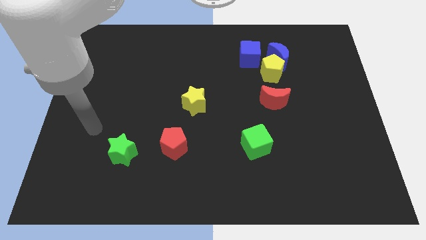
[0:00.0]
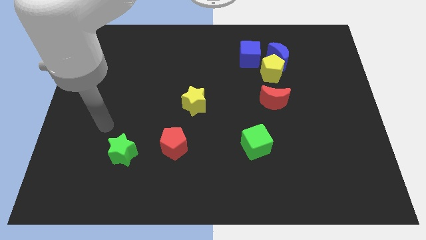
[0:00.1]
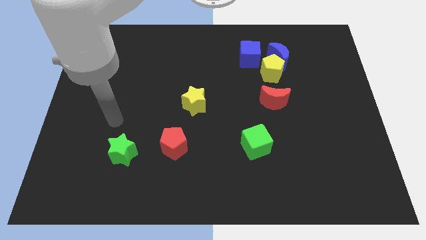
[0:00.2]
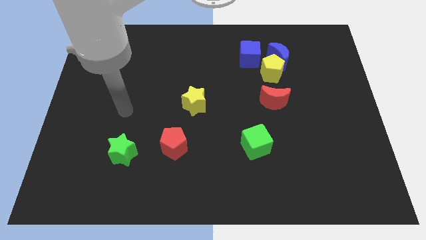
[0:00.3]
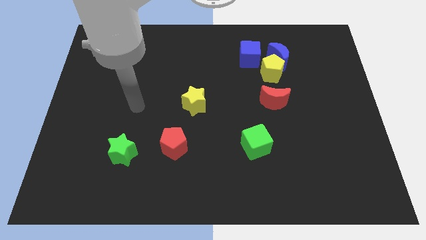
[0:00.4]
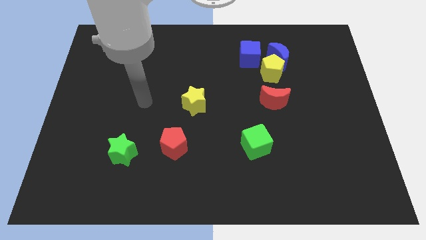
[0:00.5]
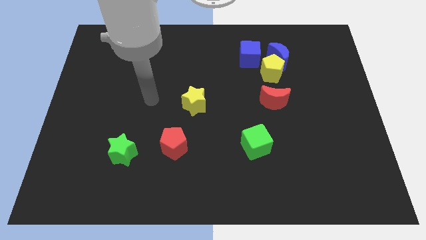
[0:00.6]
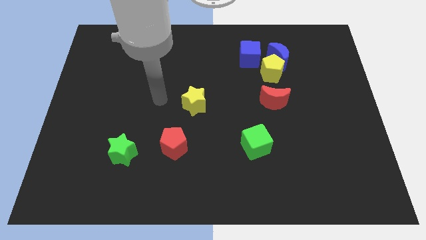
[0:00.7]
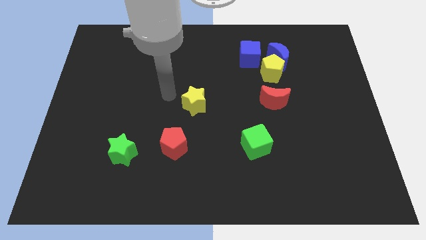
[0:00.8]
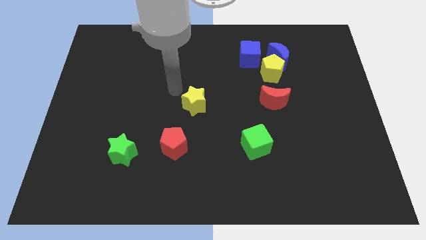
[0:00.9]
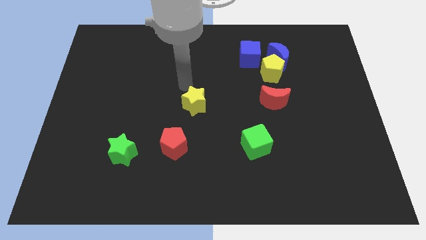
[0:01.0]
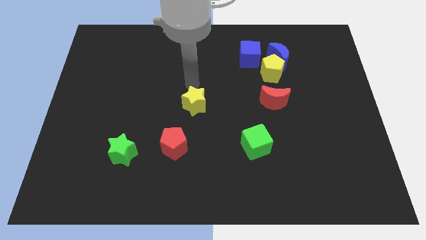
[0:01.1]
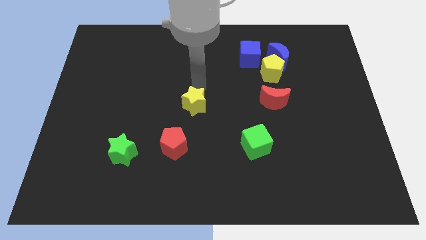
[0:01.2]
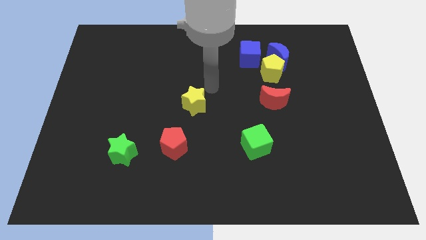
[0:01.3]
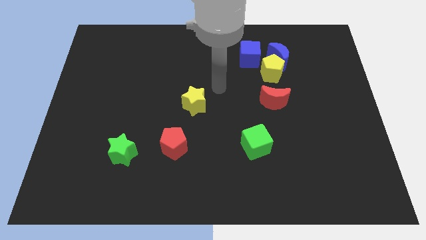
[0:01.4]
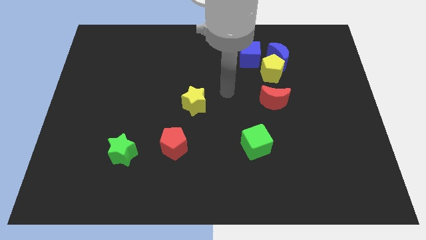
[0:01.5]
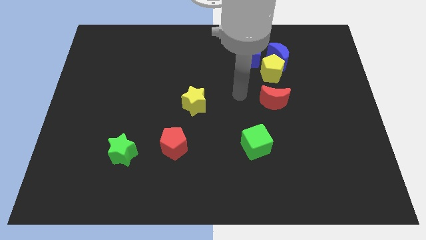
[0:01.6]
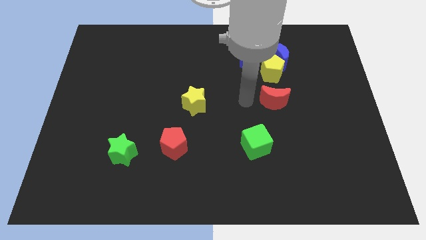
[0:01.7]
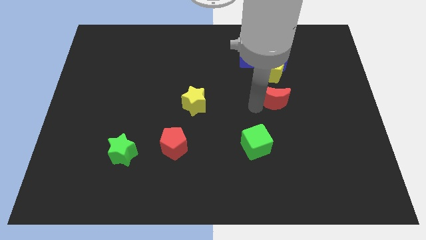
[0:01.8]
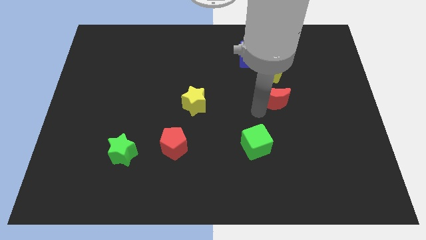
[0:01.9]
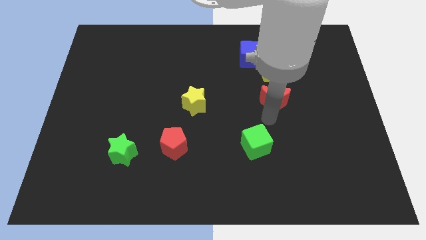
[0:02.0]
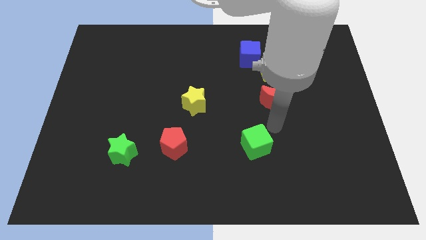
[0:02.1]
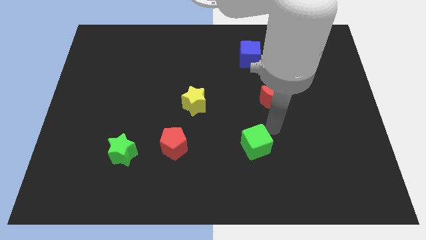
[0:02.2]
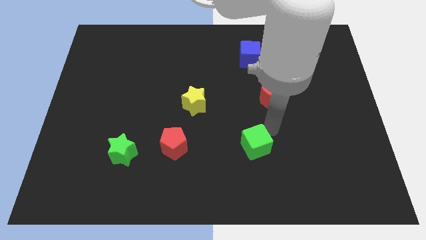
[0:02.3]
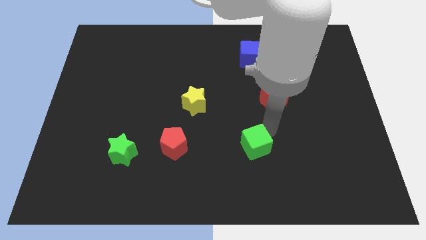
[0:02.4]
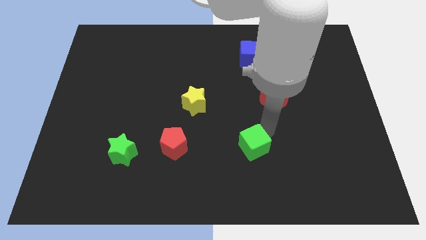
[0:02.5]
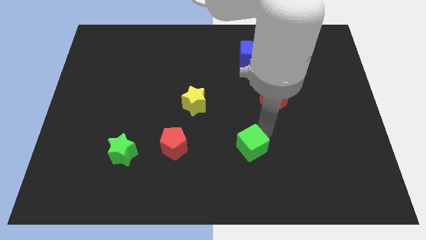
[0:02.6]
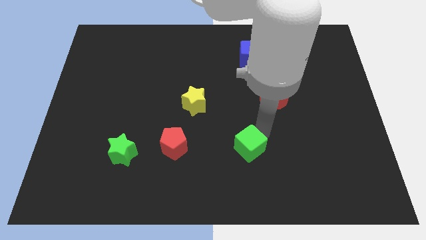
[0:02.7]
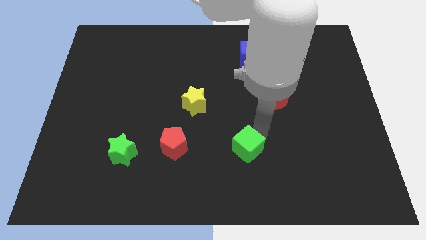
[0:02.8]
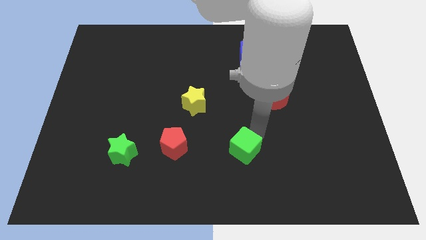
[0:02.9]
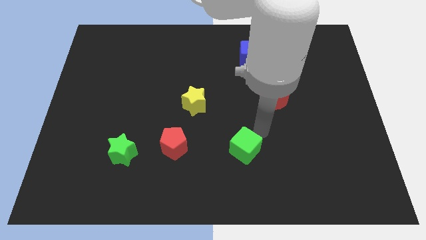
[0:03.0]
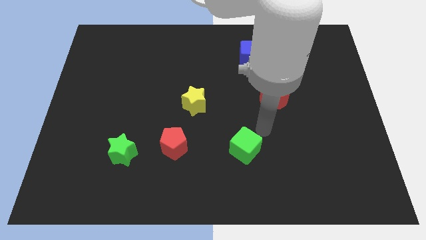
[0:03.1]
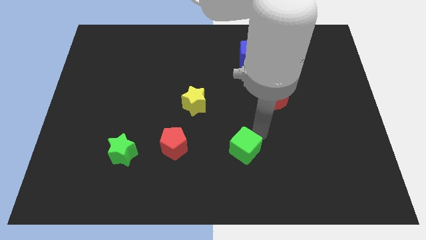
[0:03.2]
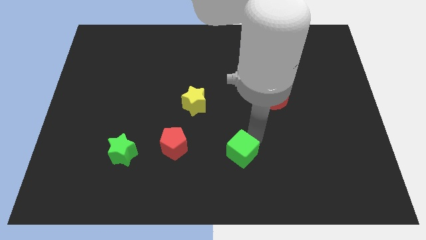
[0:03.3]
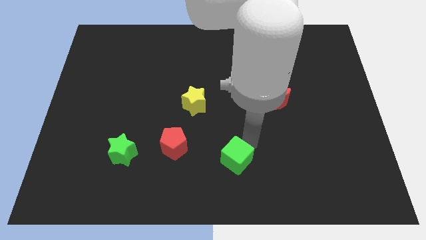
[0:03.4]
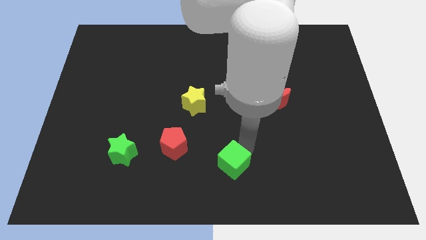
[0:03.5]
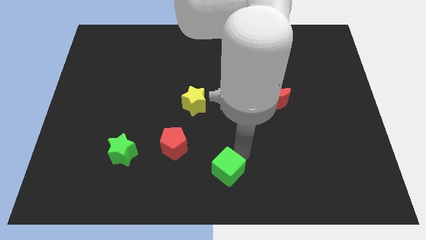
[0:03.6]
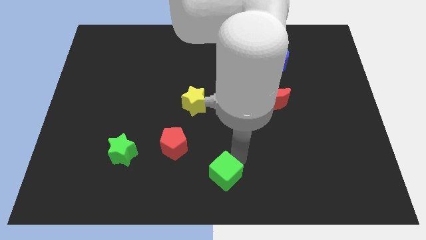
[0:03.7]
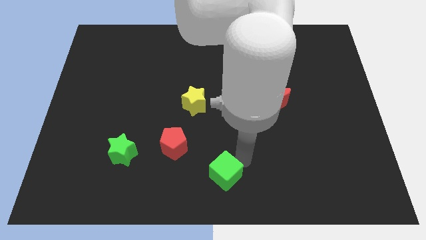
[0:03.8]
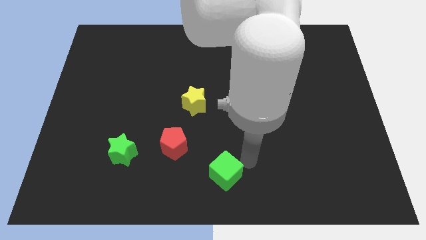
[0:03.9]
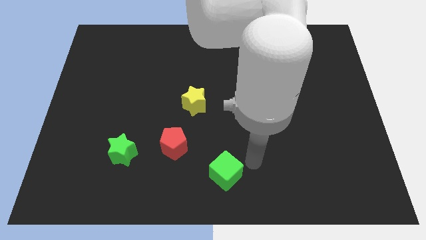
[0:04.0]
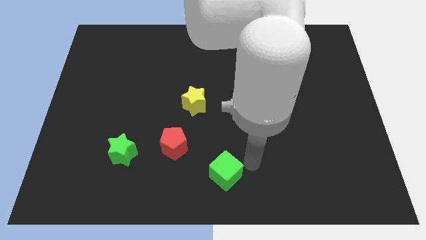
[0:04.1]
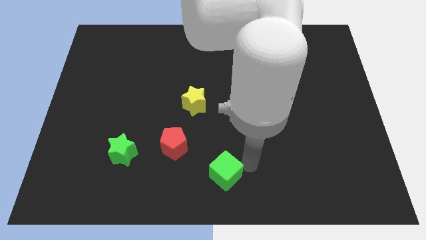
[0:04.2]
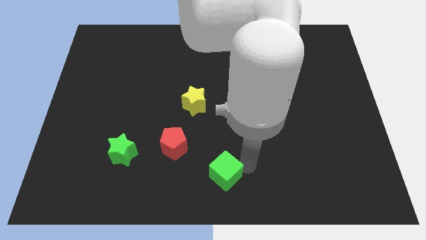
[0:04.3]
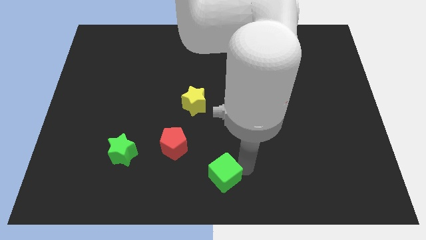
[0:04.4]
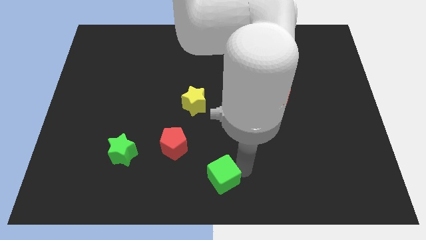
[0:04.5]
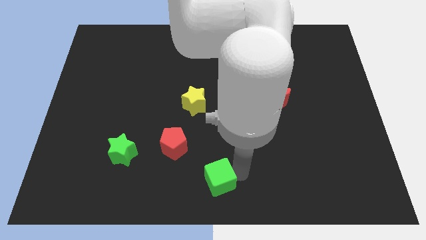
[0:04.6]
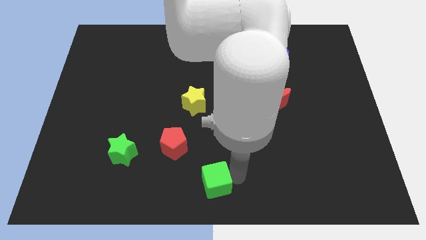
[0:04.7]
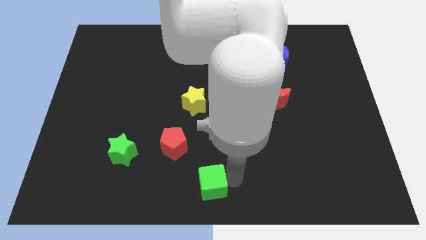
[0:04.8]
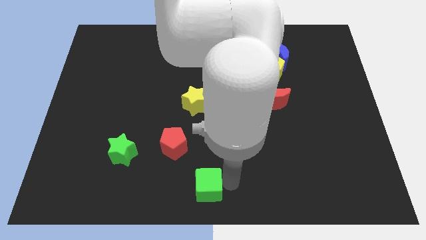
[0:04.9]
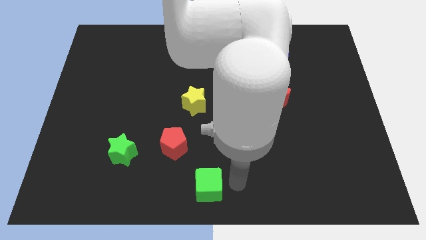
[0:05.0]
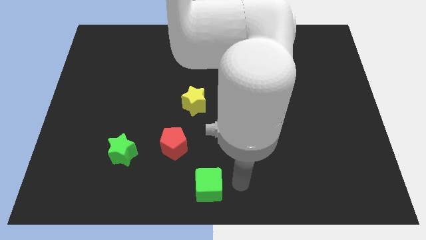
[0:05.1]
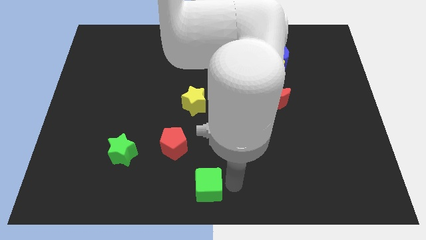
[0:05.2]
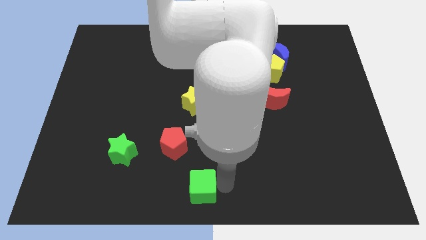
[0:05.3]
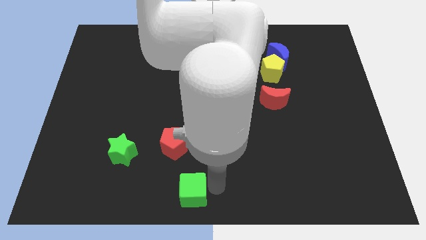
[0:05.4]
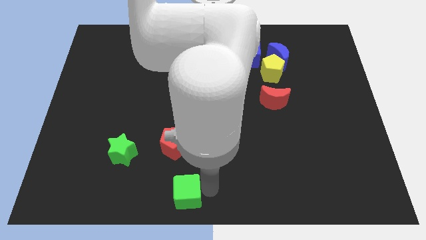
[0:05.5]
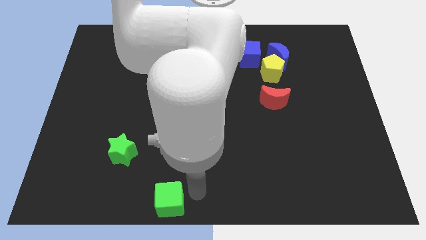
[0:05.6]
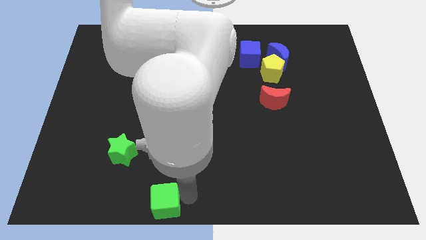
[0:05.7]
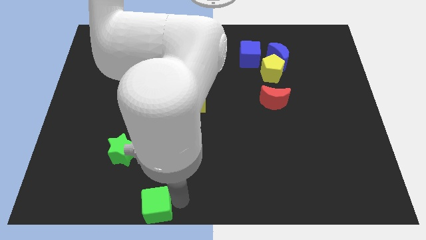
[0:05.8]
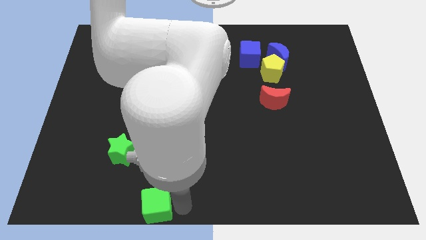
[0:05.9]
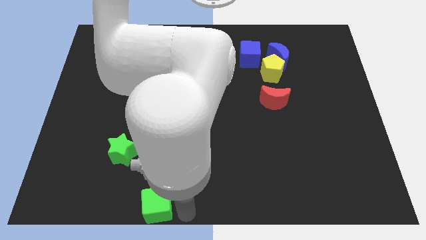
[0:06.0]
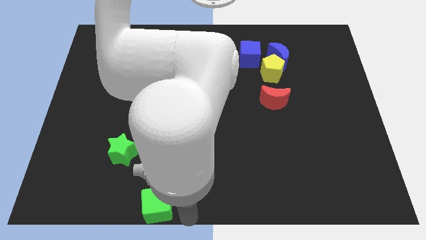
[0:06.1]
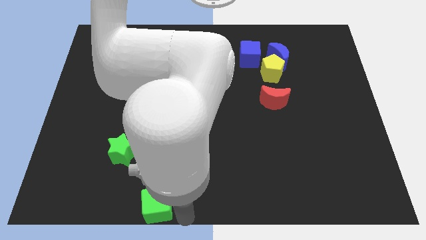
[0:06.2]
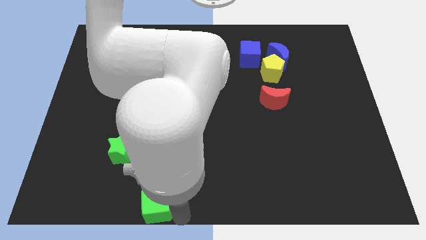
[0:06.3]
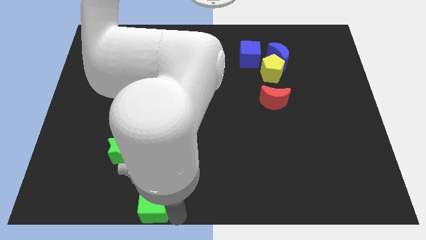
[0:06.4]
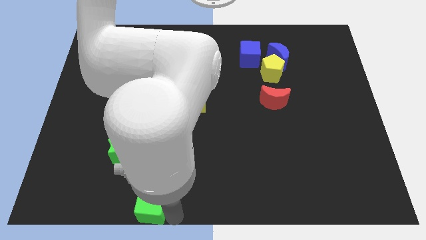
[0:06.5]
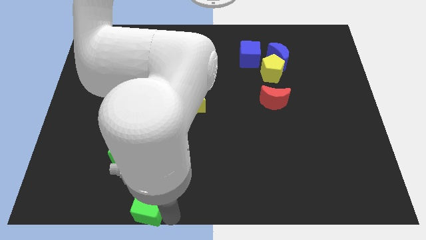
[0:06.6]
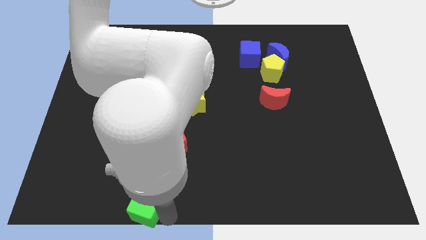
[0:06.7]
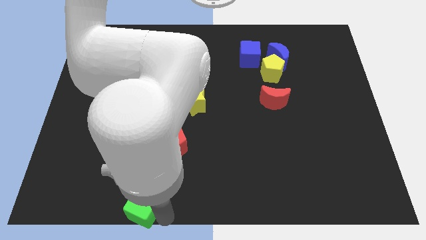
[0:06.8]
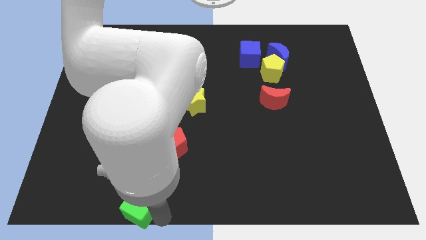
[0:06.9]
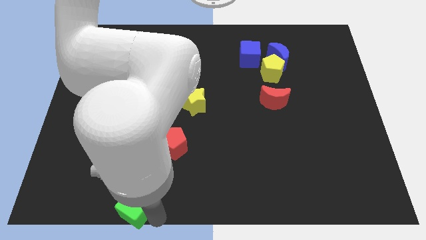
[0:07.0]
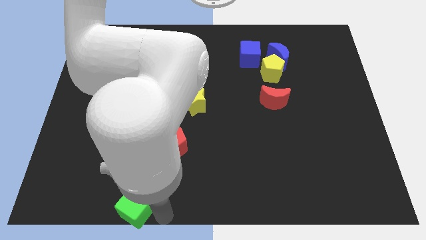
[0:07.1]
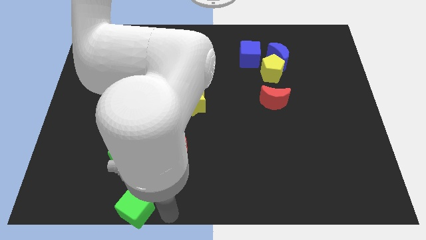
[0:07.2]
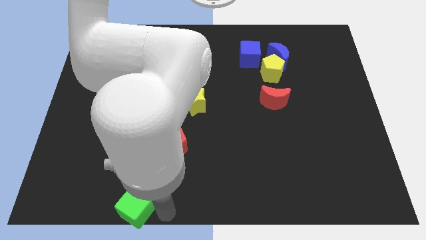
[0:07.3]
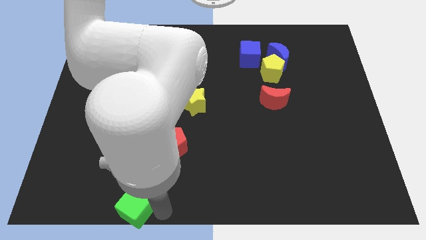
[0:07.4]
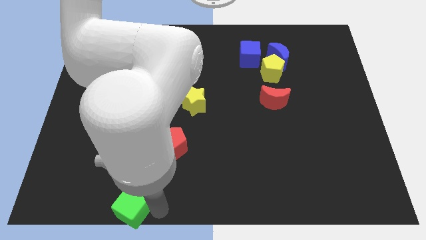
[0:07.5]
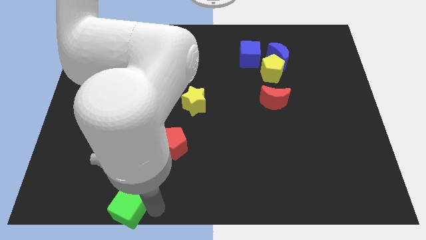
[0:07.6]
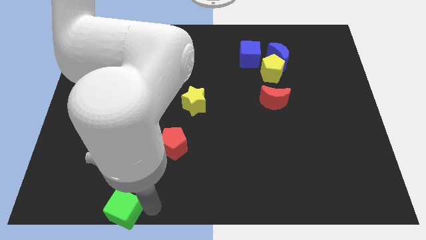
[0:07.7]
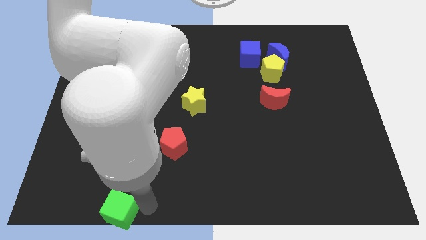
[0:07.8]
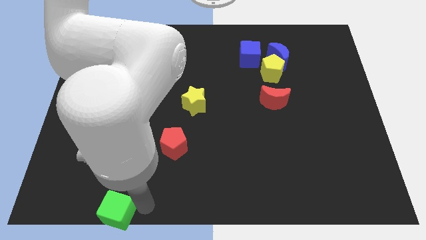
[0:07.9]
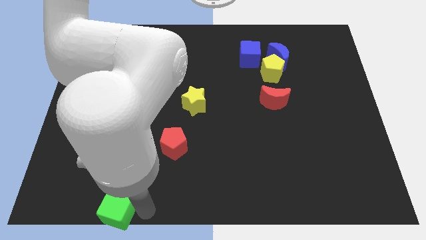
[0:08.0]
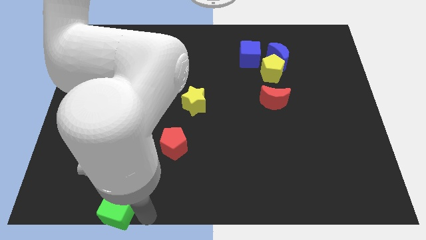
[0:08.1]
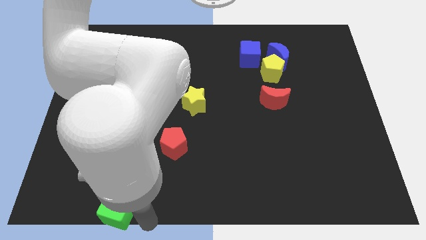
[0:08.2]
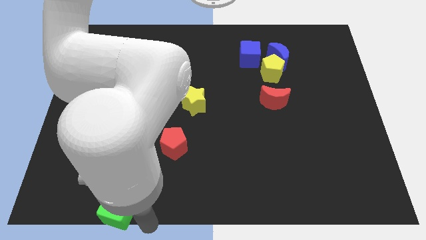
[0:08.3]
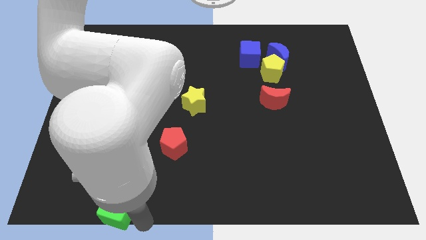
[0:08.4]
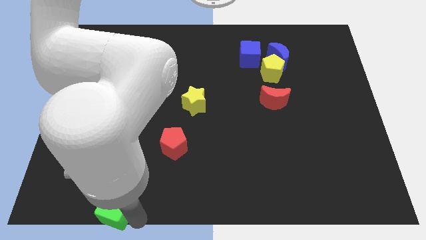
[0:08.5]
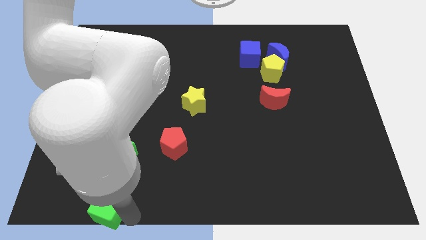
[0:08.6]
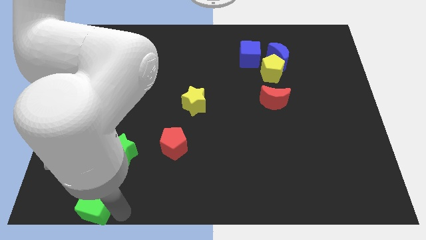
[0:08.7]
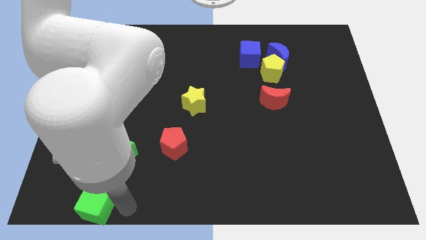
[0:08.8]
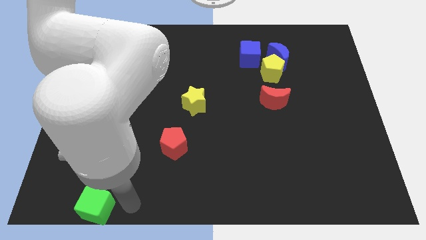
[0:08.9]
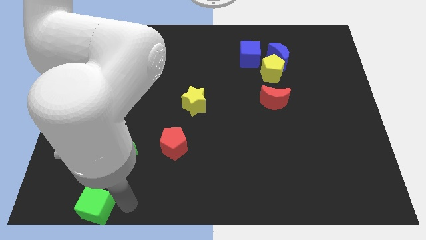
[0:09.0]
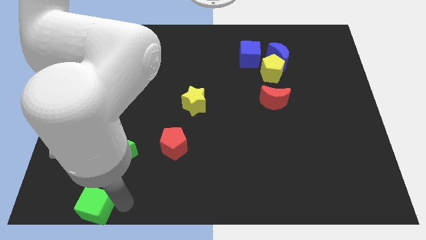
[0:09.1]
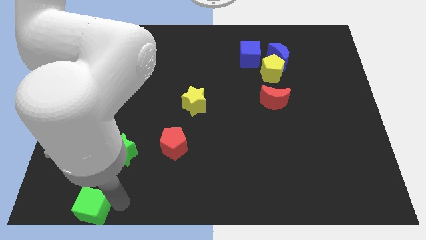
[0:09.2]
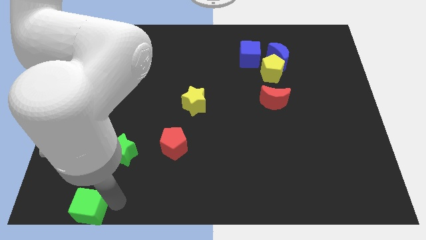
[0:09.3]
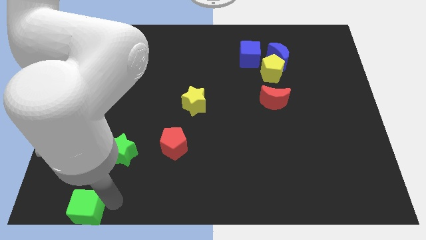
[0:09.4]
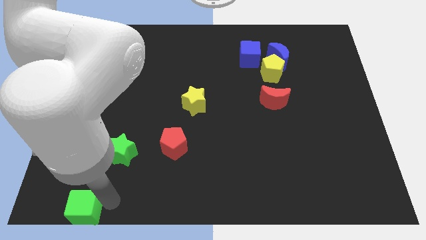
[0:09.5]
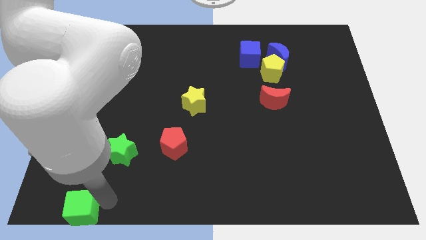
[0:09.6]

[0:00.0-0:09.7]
put the green cube to the bottom left
